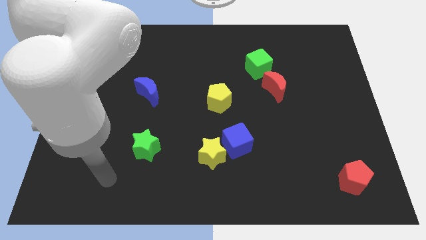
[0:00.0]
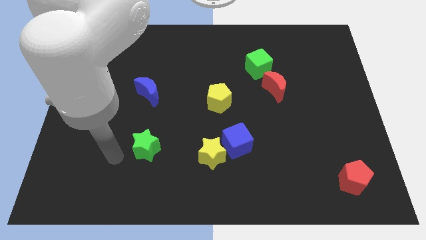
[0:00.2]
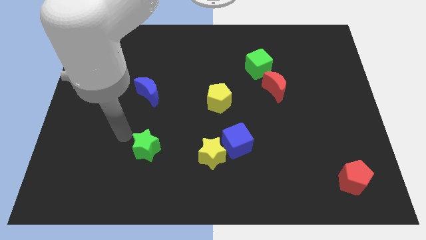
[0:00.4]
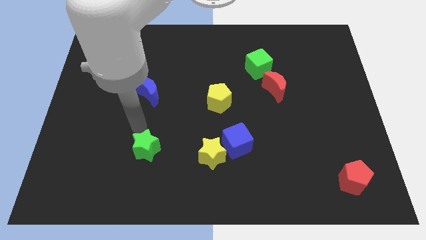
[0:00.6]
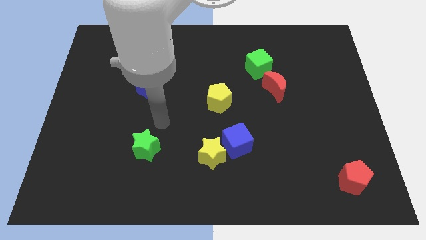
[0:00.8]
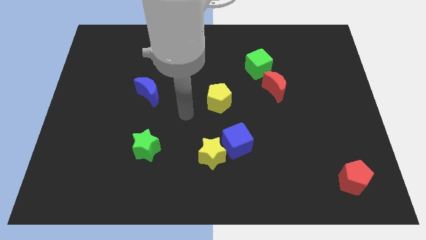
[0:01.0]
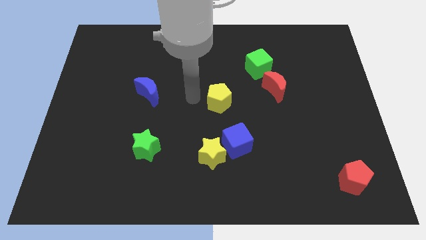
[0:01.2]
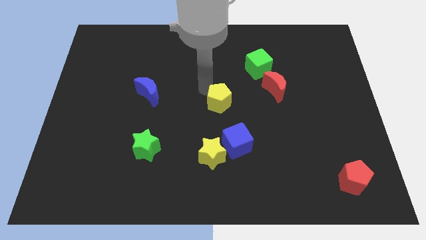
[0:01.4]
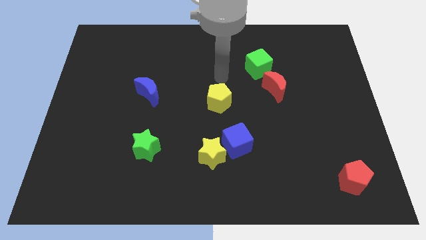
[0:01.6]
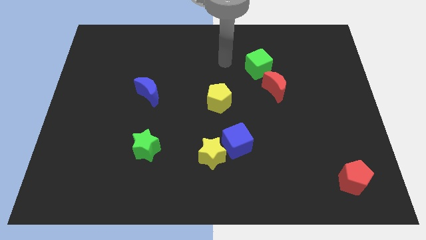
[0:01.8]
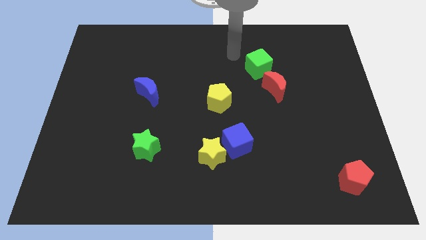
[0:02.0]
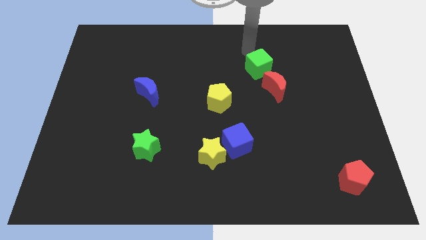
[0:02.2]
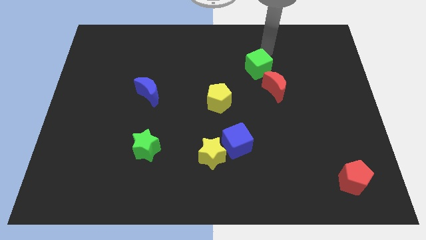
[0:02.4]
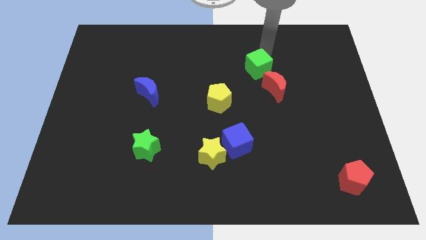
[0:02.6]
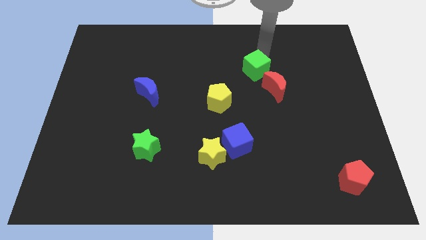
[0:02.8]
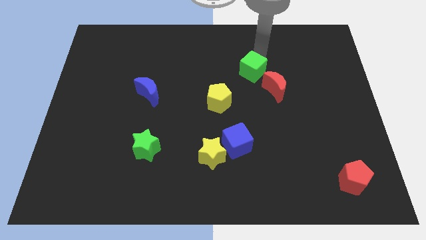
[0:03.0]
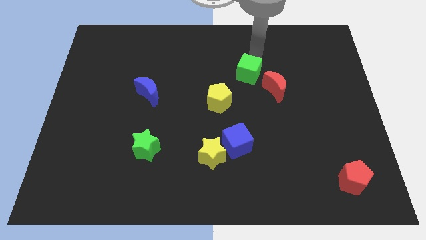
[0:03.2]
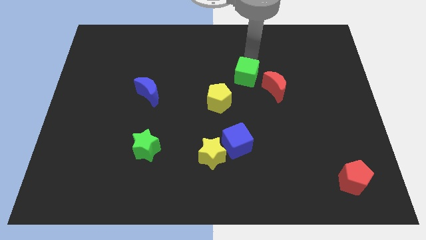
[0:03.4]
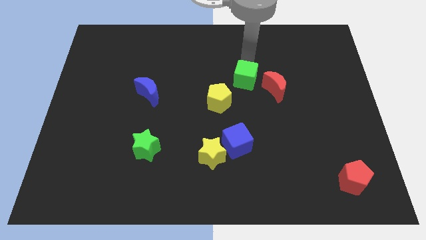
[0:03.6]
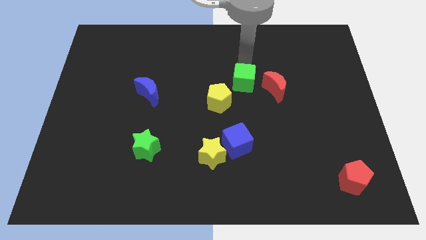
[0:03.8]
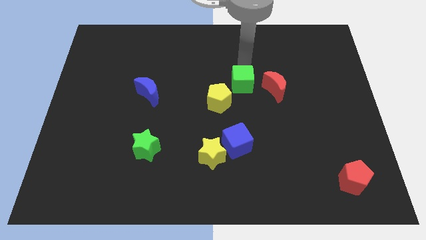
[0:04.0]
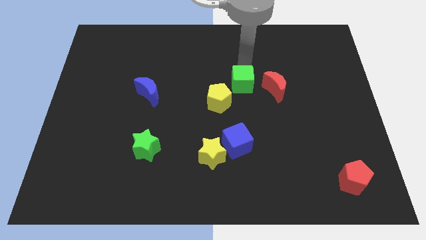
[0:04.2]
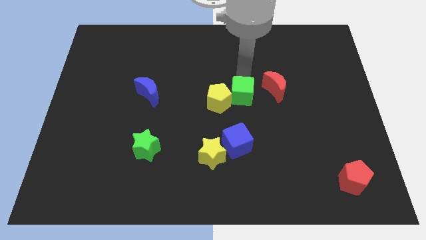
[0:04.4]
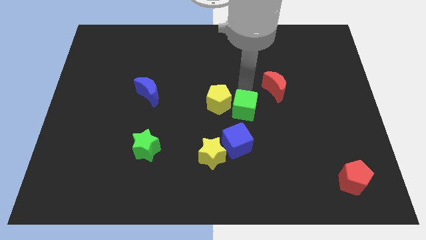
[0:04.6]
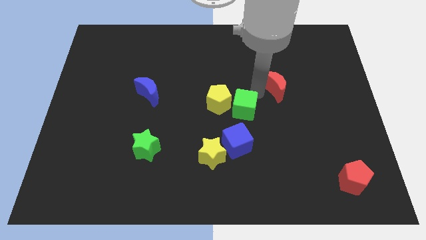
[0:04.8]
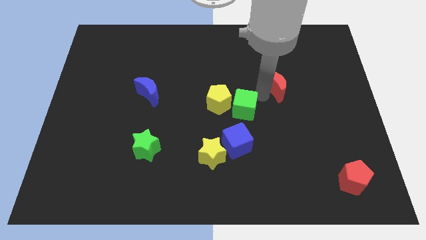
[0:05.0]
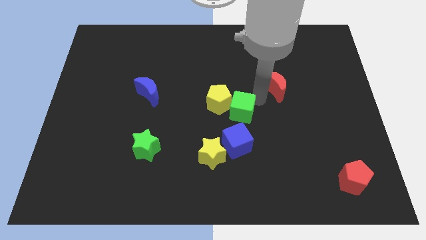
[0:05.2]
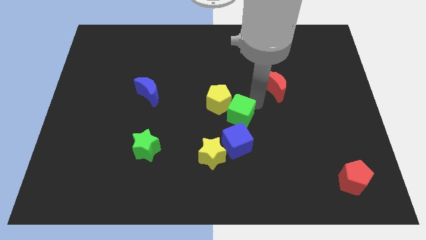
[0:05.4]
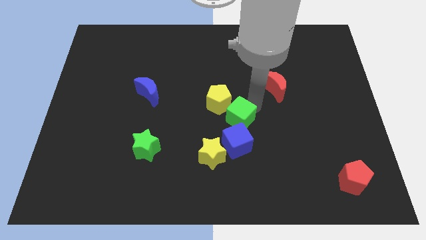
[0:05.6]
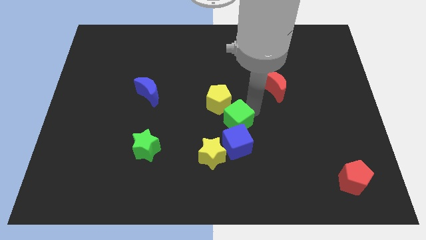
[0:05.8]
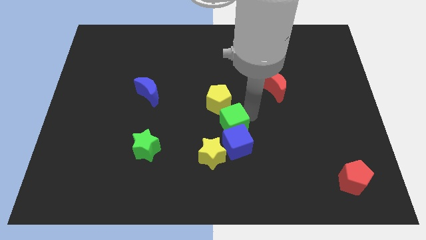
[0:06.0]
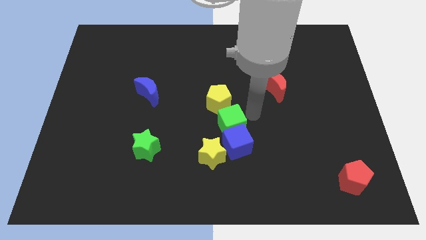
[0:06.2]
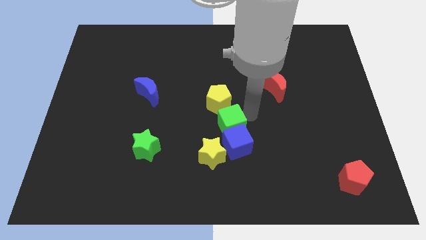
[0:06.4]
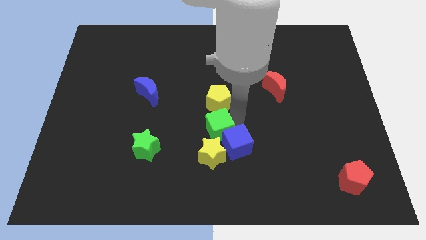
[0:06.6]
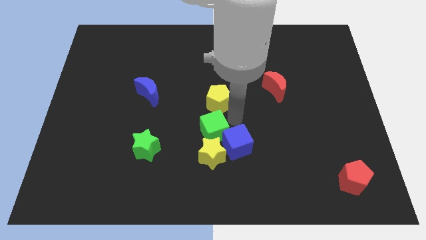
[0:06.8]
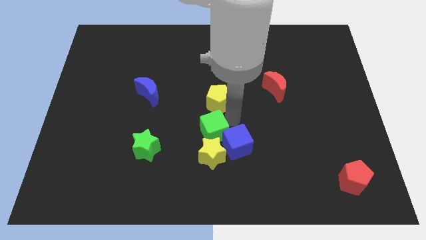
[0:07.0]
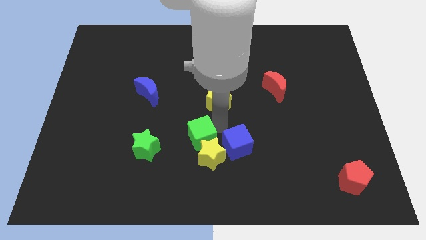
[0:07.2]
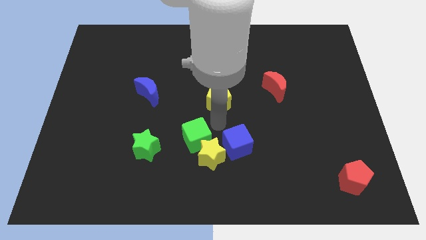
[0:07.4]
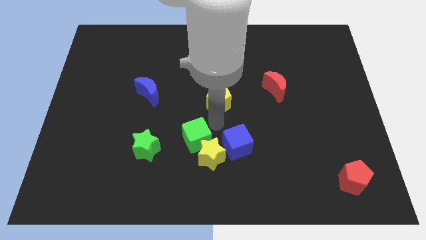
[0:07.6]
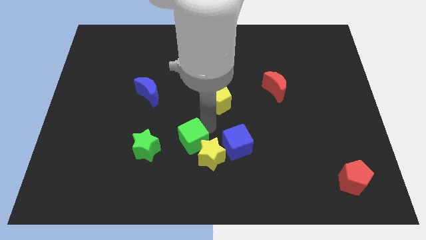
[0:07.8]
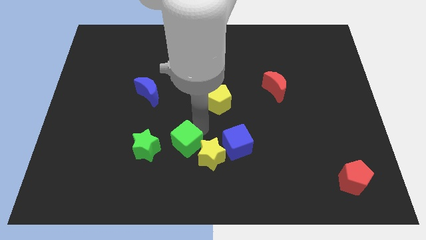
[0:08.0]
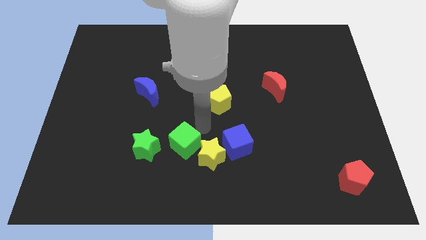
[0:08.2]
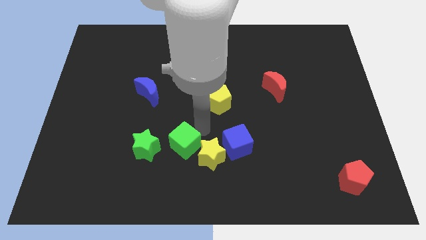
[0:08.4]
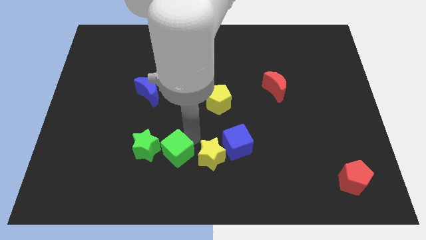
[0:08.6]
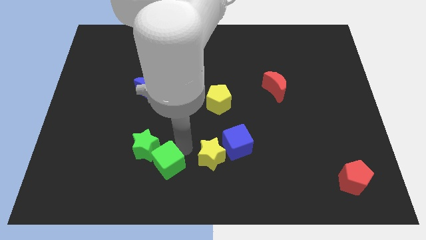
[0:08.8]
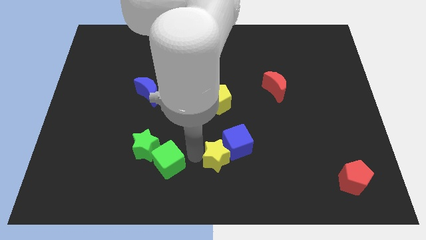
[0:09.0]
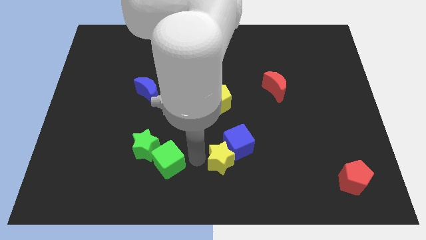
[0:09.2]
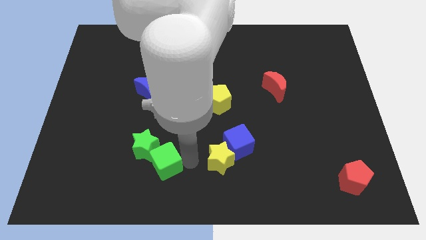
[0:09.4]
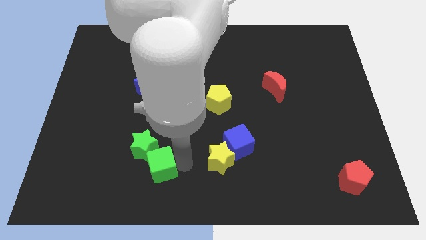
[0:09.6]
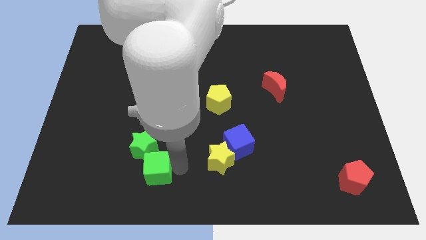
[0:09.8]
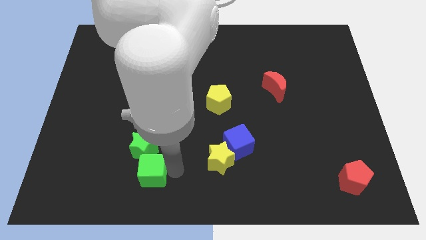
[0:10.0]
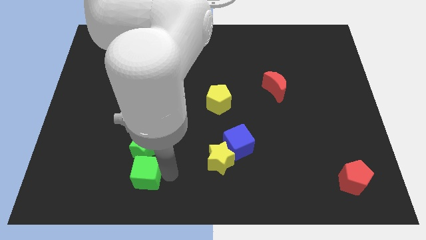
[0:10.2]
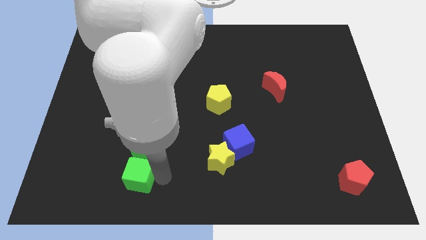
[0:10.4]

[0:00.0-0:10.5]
slide the green cube to the bottom left of the green star

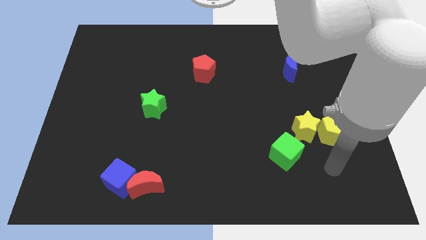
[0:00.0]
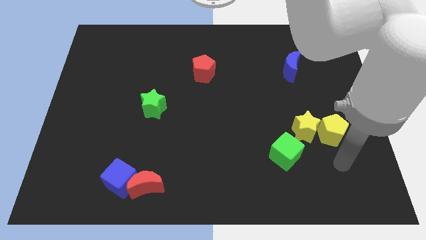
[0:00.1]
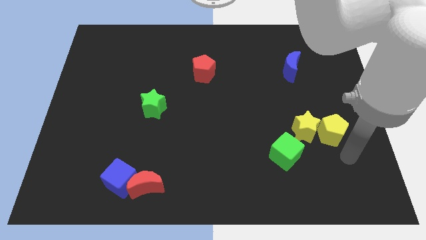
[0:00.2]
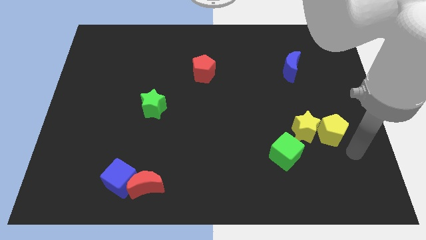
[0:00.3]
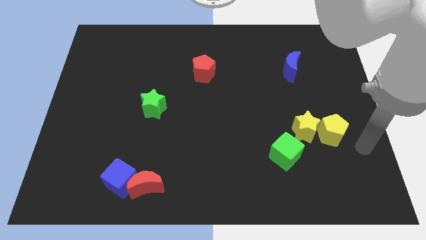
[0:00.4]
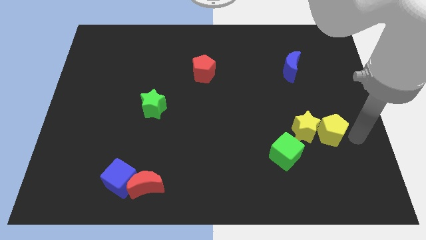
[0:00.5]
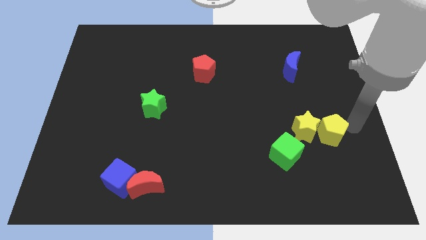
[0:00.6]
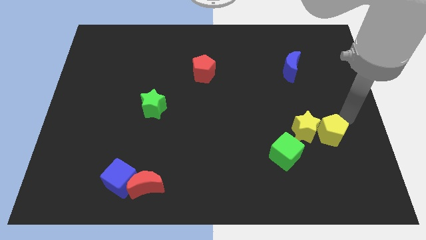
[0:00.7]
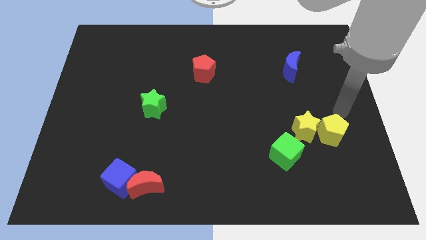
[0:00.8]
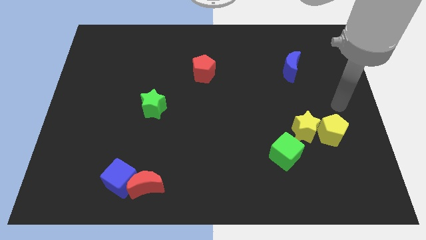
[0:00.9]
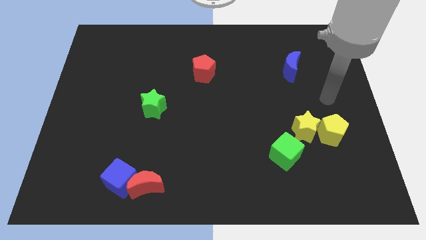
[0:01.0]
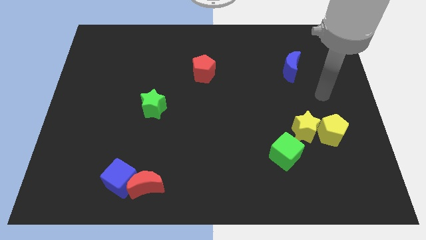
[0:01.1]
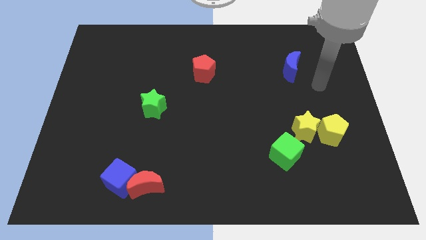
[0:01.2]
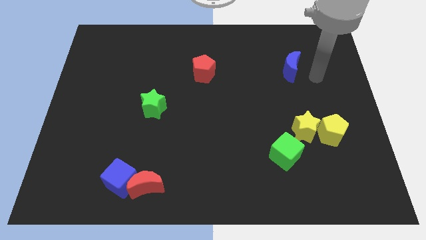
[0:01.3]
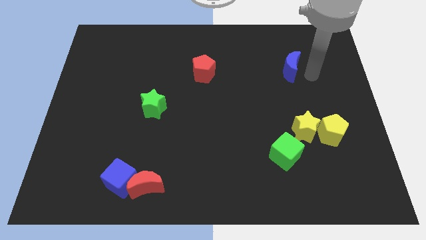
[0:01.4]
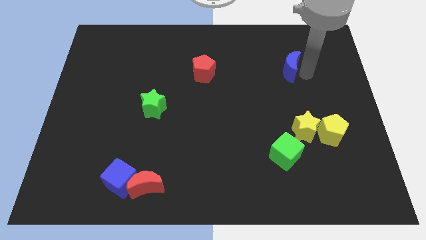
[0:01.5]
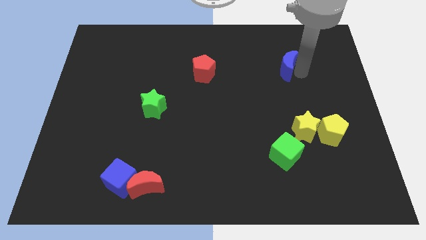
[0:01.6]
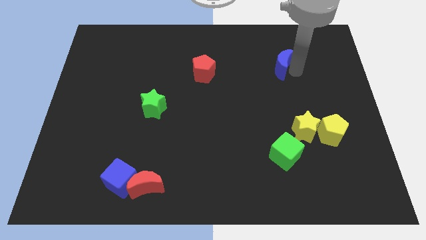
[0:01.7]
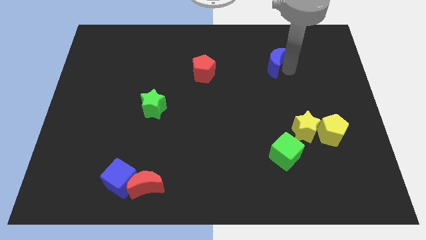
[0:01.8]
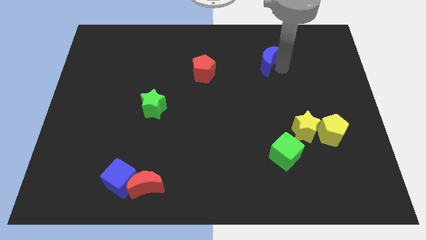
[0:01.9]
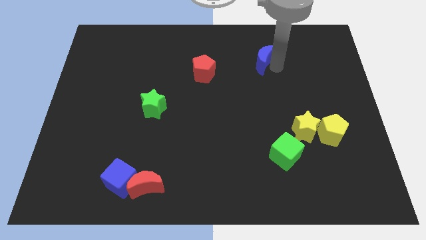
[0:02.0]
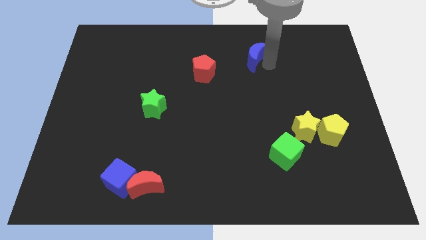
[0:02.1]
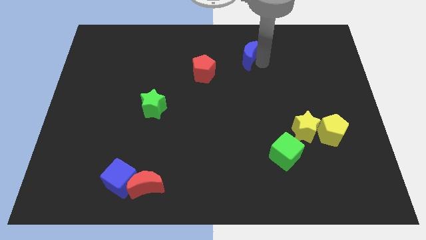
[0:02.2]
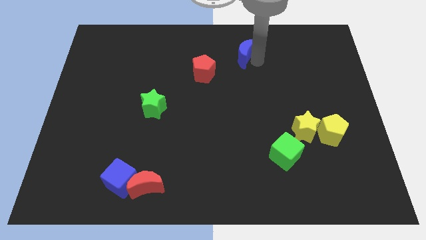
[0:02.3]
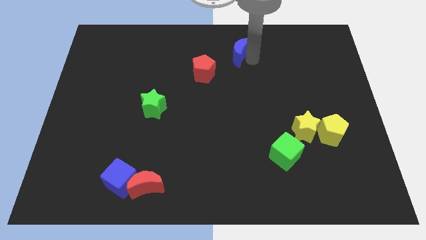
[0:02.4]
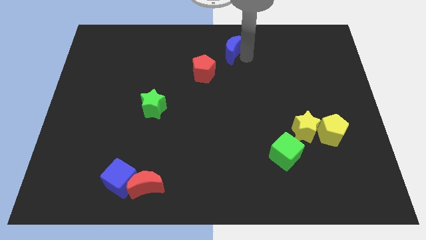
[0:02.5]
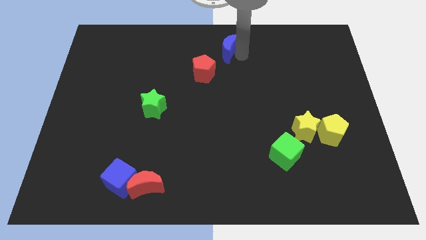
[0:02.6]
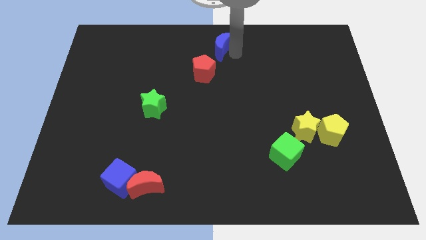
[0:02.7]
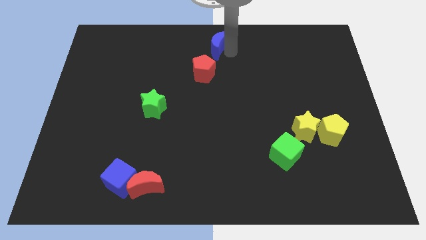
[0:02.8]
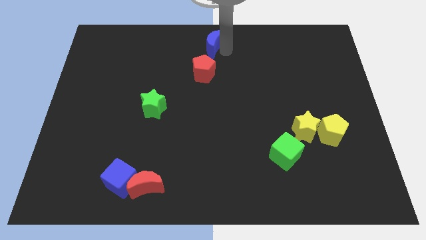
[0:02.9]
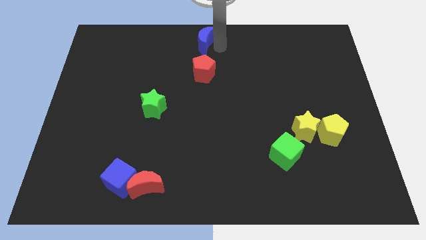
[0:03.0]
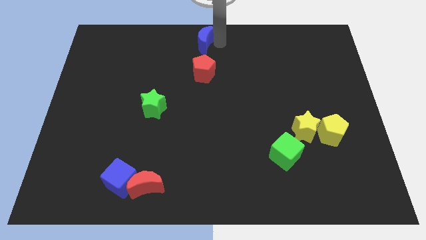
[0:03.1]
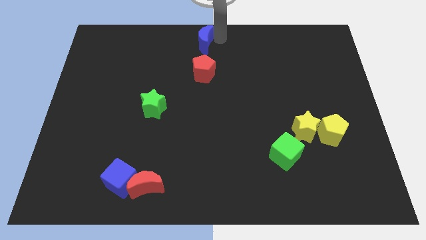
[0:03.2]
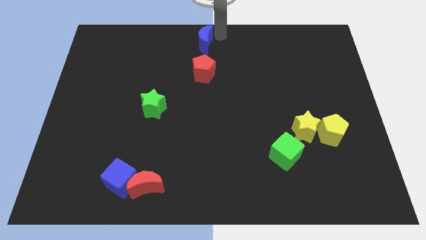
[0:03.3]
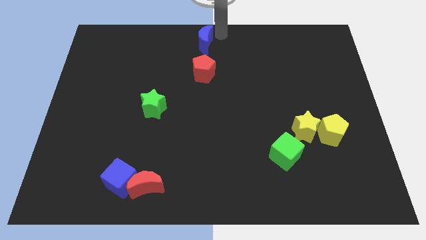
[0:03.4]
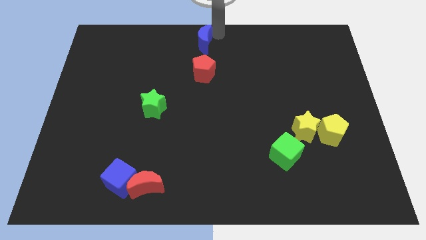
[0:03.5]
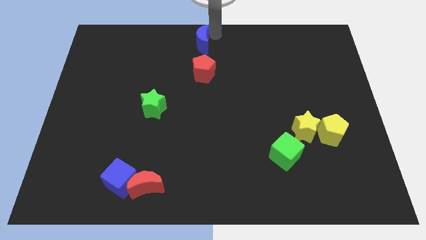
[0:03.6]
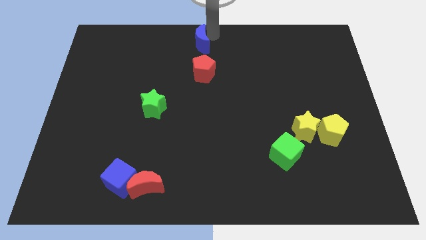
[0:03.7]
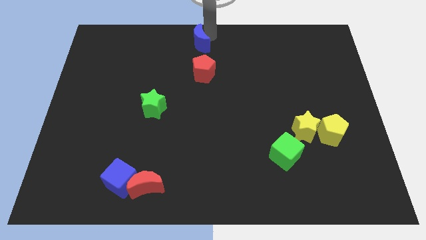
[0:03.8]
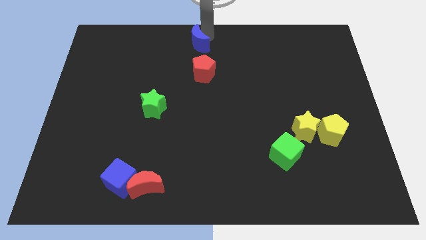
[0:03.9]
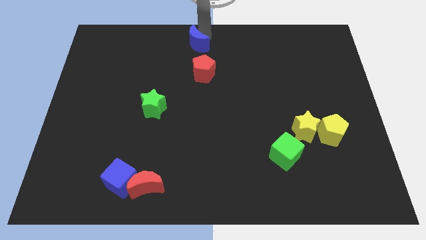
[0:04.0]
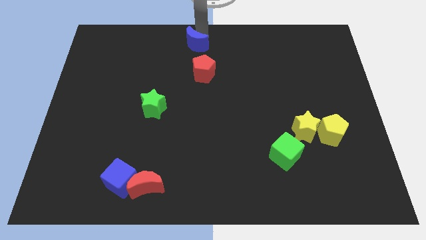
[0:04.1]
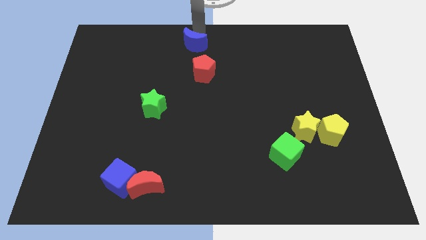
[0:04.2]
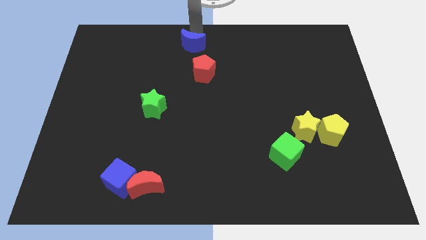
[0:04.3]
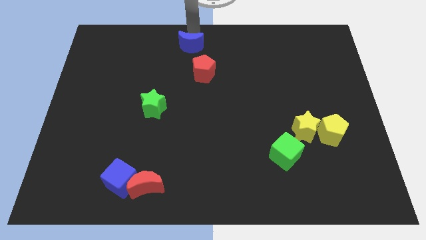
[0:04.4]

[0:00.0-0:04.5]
push the blue moon to the top left side of the red pentagon
